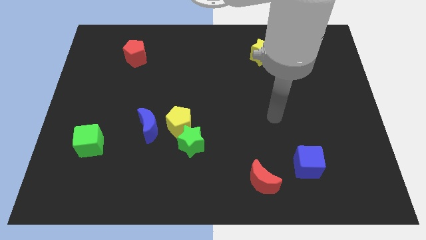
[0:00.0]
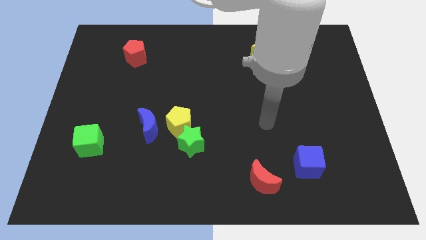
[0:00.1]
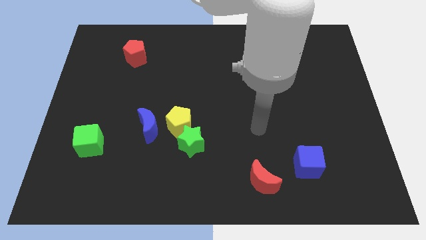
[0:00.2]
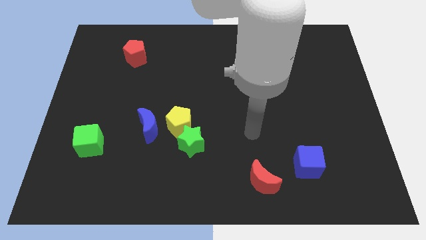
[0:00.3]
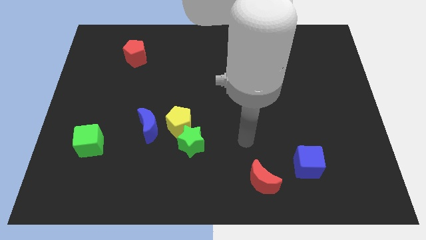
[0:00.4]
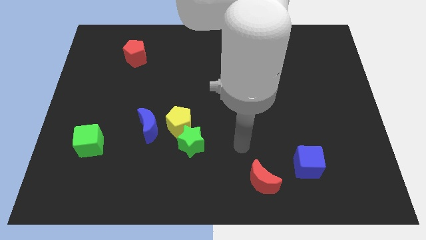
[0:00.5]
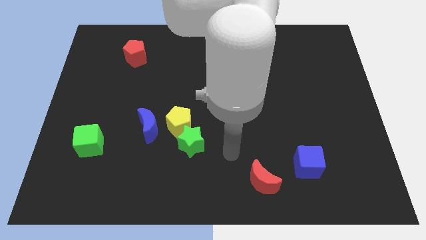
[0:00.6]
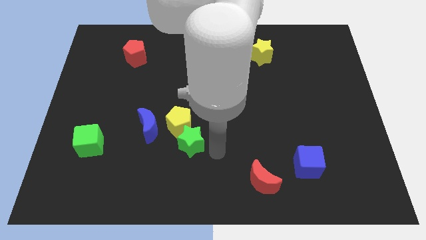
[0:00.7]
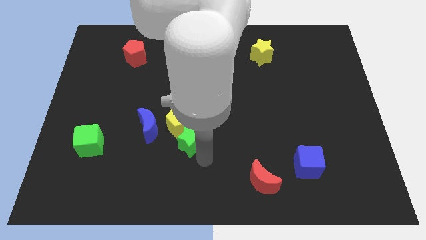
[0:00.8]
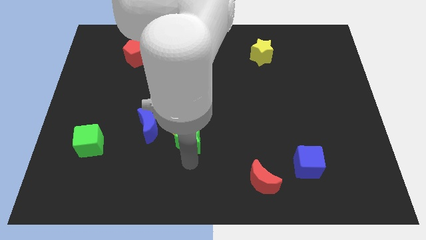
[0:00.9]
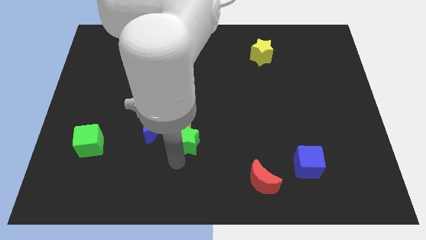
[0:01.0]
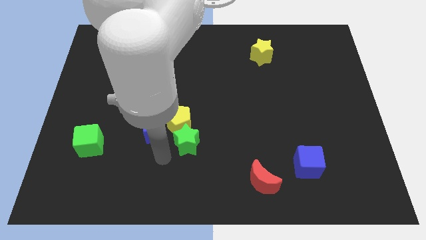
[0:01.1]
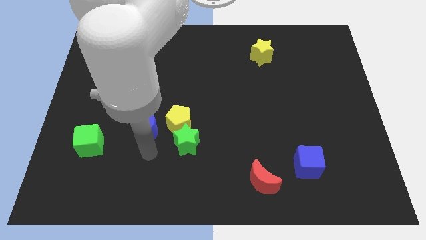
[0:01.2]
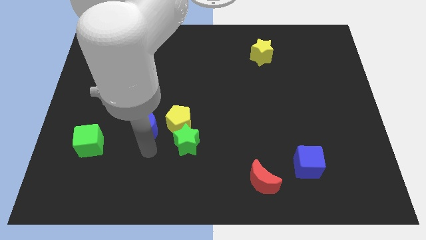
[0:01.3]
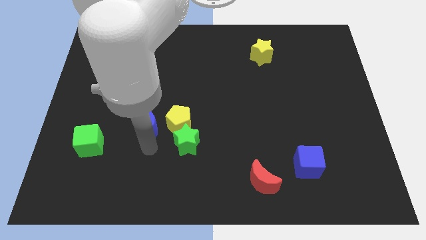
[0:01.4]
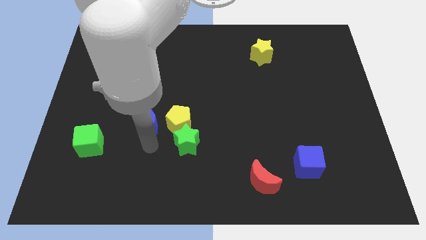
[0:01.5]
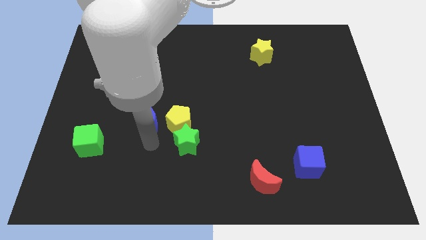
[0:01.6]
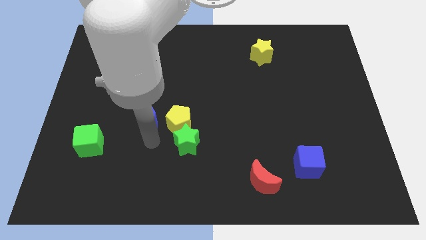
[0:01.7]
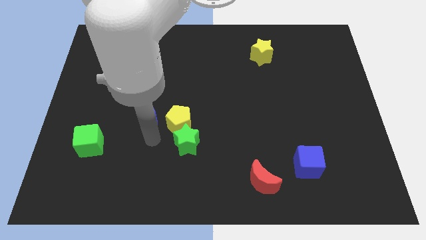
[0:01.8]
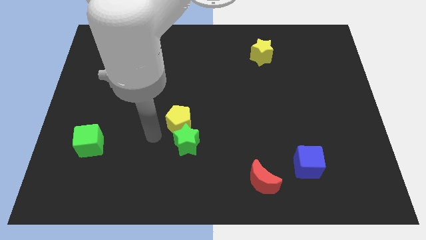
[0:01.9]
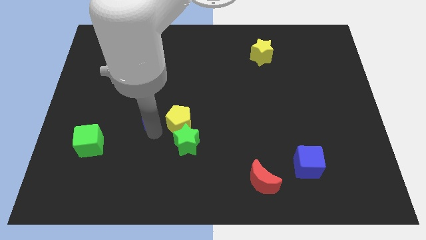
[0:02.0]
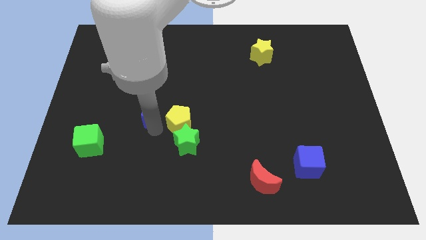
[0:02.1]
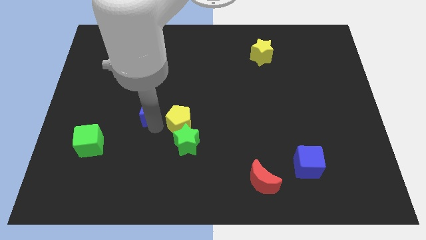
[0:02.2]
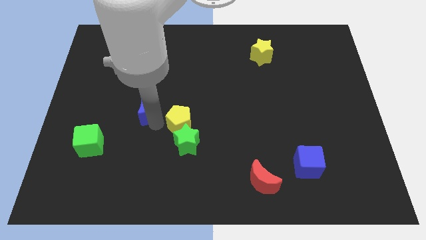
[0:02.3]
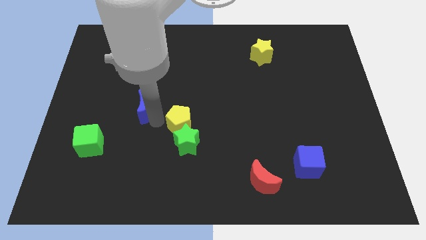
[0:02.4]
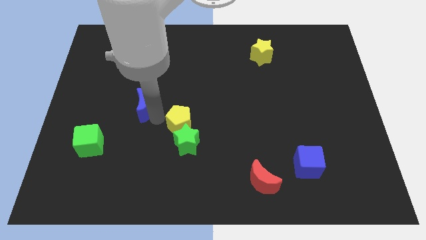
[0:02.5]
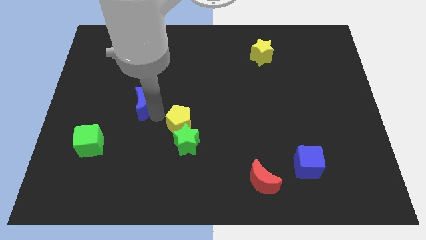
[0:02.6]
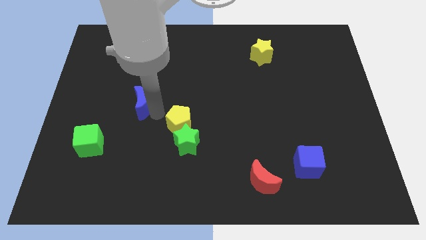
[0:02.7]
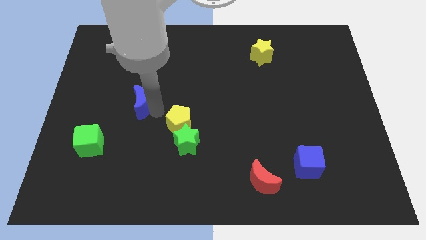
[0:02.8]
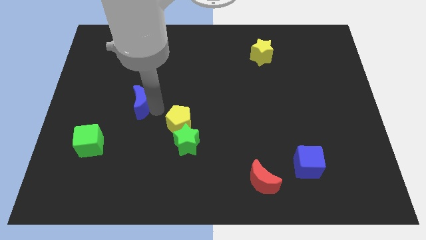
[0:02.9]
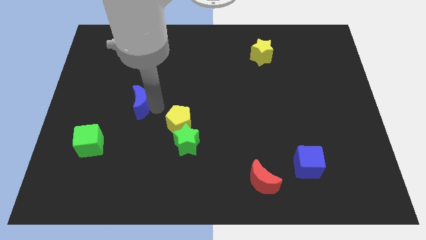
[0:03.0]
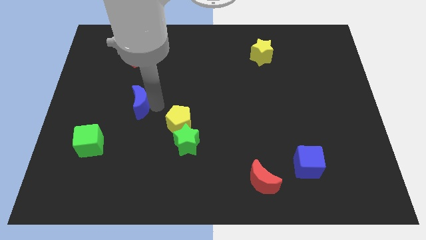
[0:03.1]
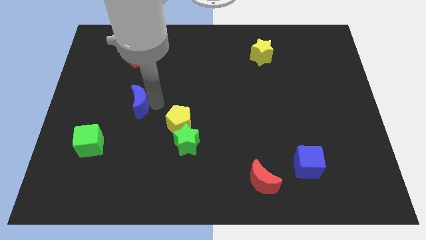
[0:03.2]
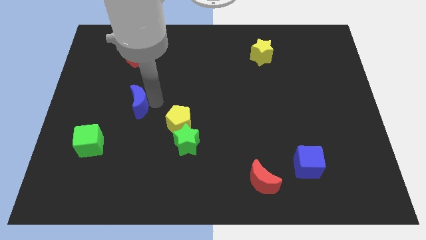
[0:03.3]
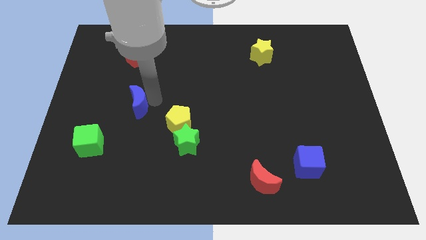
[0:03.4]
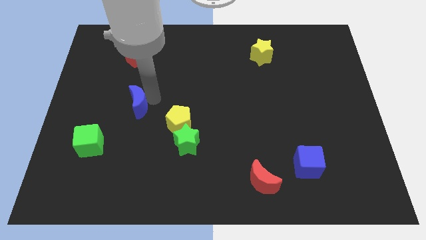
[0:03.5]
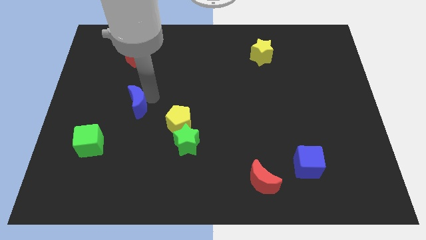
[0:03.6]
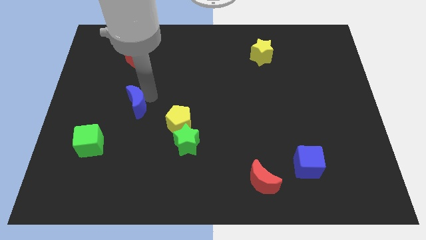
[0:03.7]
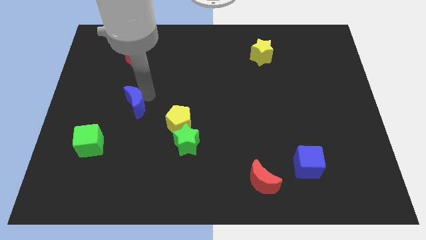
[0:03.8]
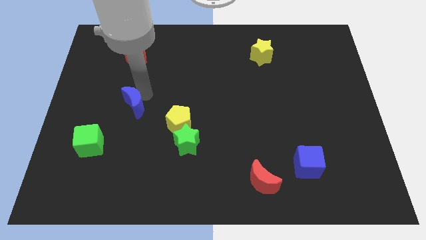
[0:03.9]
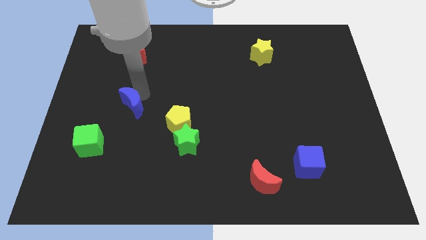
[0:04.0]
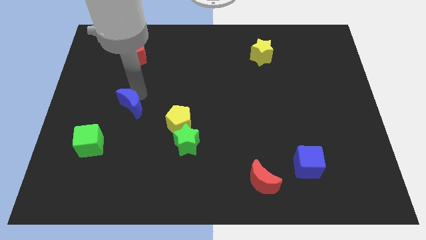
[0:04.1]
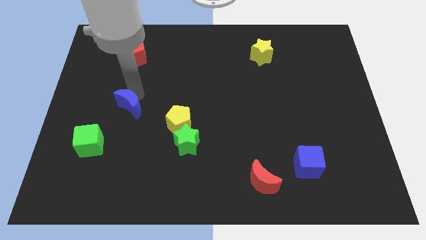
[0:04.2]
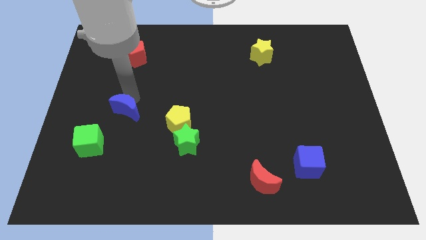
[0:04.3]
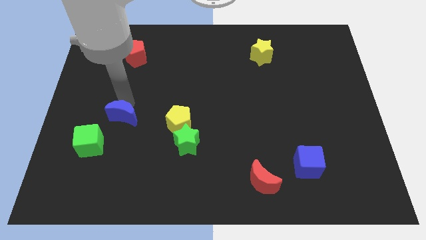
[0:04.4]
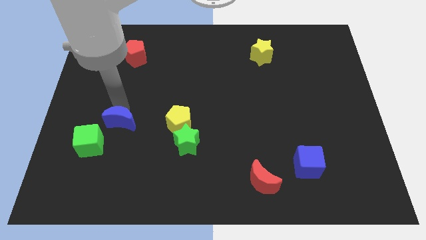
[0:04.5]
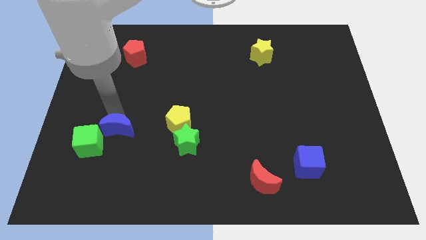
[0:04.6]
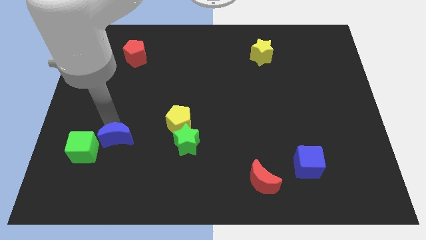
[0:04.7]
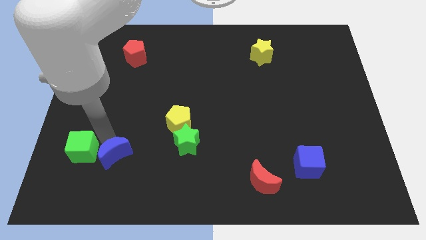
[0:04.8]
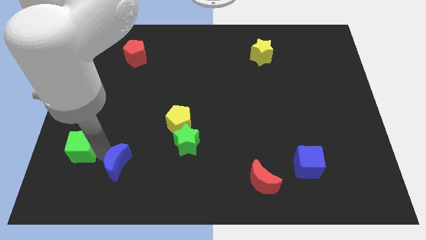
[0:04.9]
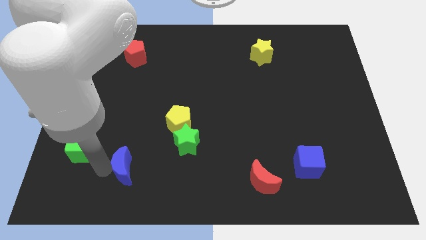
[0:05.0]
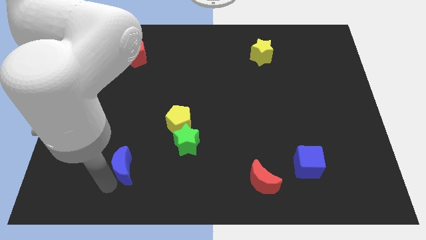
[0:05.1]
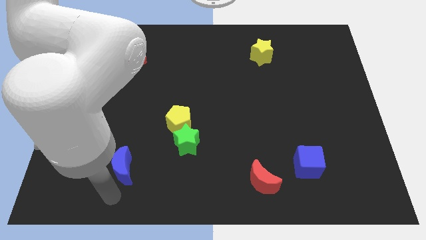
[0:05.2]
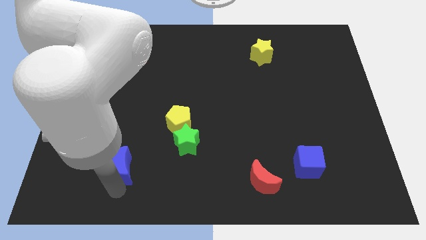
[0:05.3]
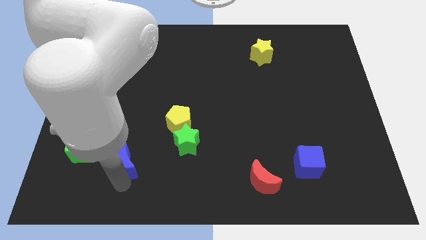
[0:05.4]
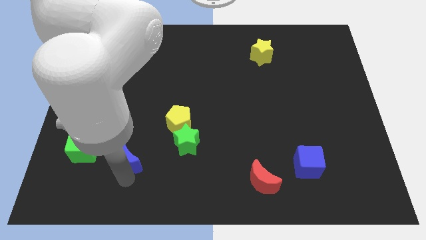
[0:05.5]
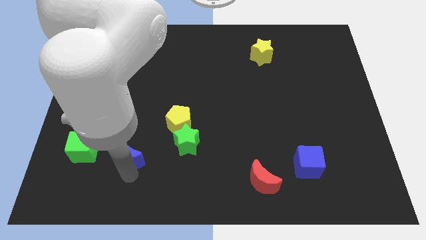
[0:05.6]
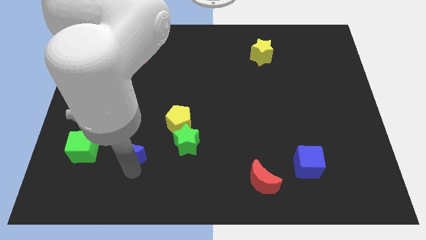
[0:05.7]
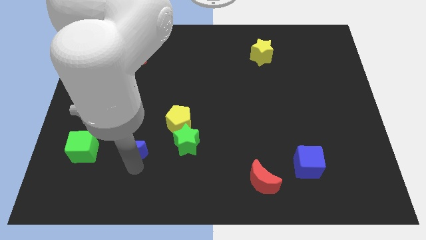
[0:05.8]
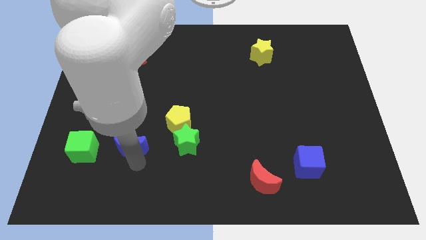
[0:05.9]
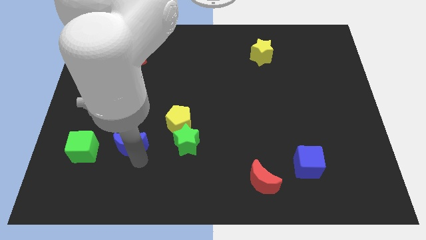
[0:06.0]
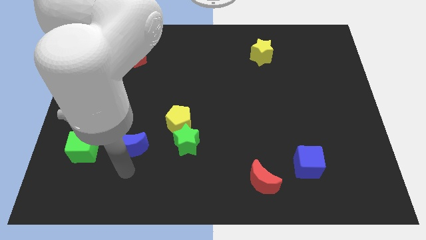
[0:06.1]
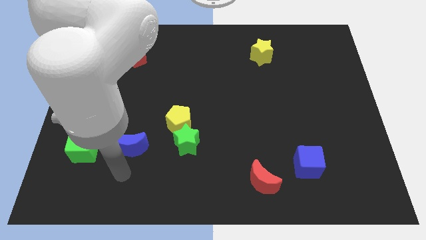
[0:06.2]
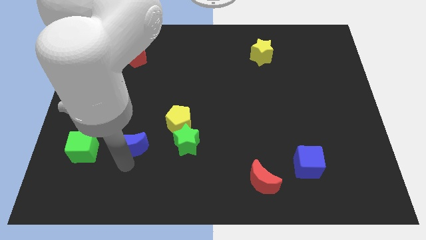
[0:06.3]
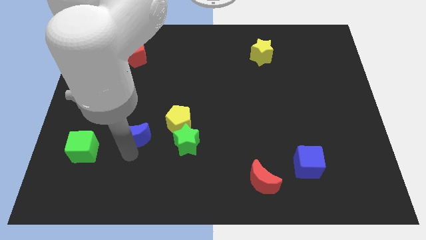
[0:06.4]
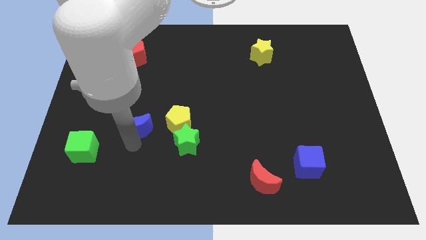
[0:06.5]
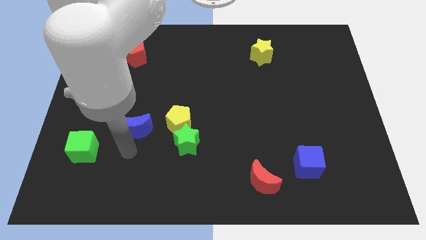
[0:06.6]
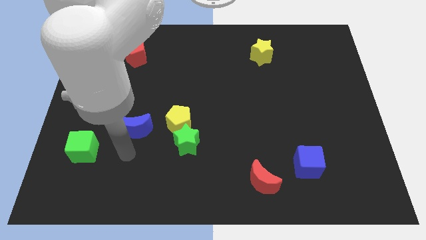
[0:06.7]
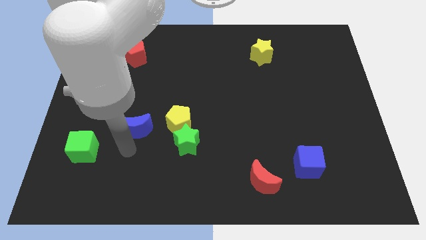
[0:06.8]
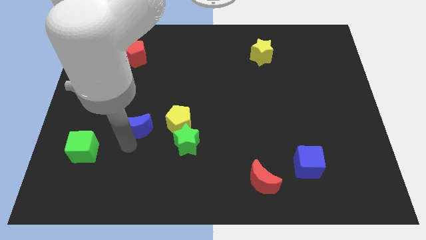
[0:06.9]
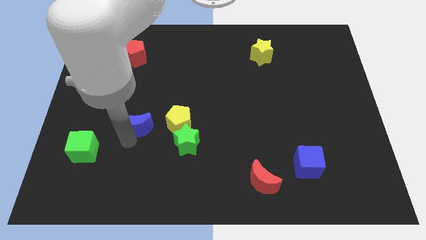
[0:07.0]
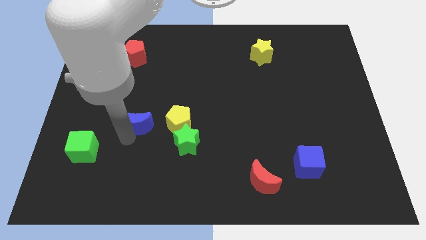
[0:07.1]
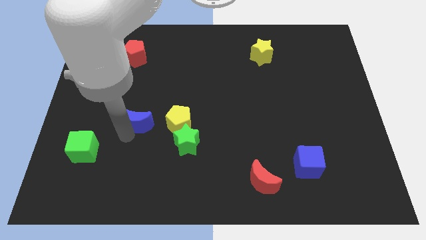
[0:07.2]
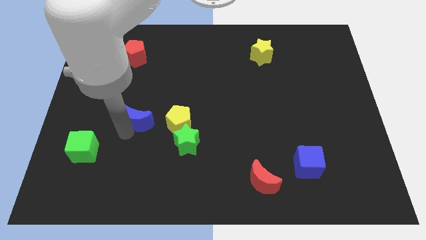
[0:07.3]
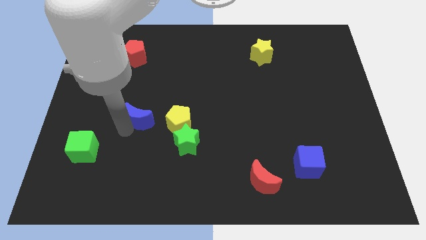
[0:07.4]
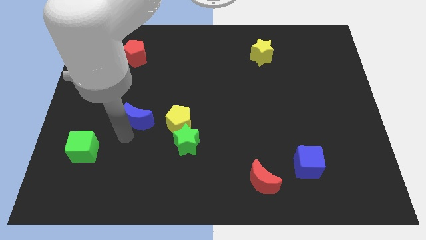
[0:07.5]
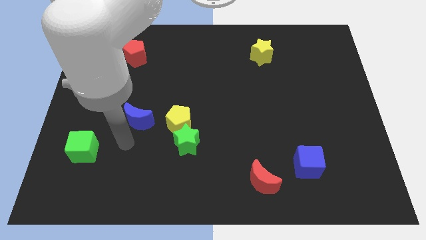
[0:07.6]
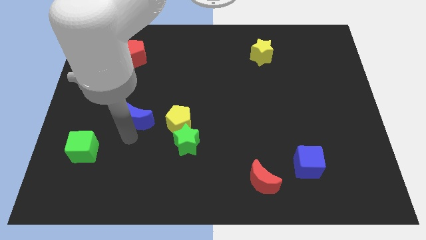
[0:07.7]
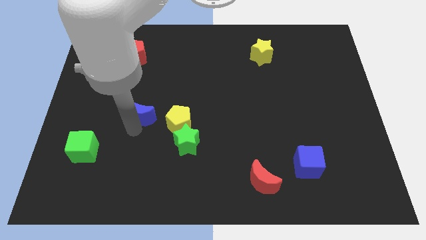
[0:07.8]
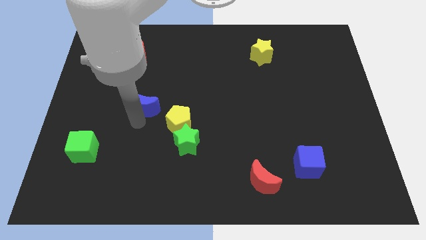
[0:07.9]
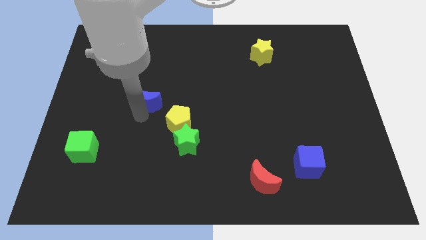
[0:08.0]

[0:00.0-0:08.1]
move the blue moon a little bit up

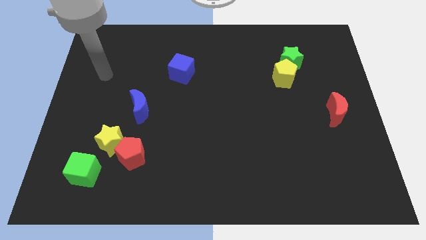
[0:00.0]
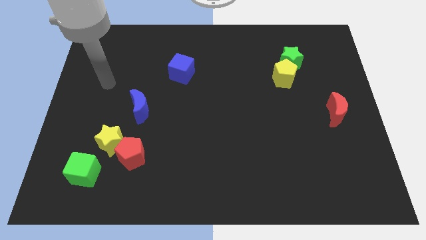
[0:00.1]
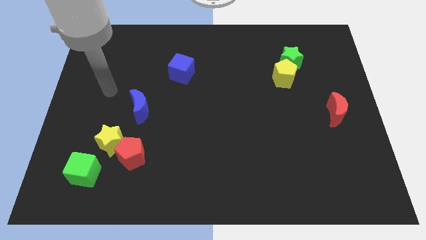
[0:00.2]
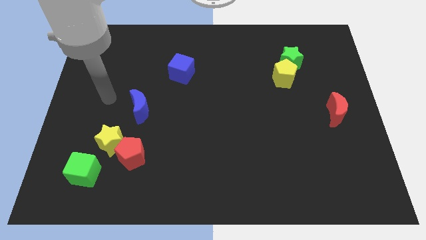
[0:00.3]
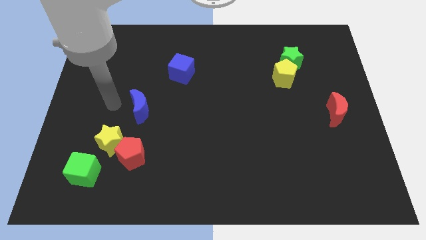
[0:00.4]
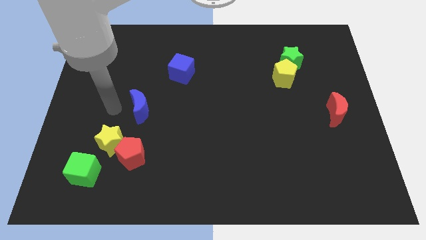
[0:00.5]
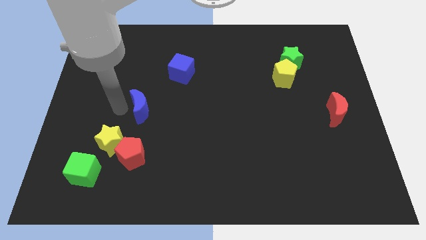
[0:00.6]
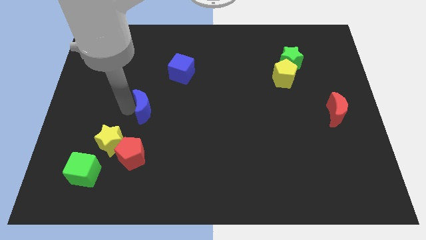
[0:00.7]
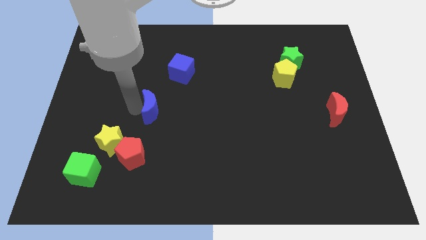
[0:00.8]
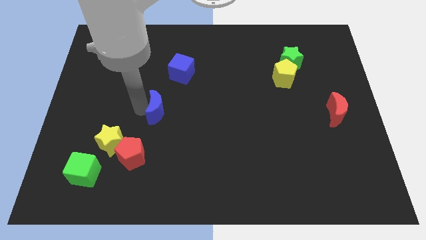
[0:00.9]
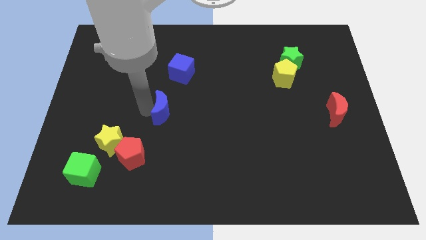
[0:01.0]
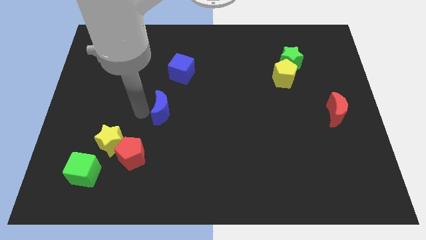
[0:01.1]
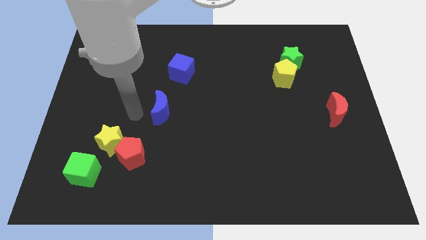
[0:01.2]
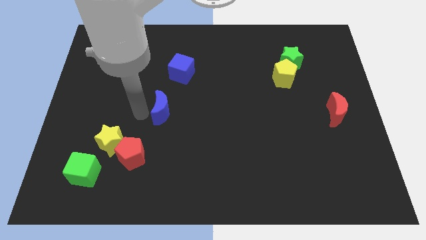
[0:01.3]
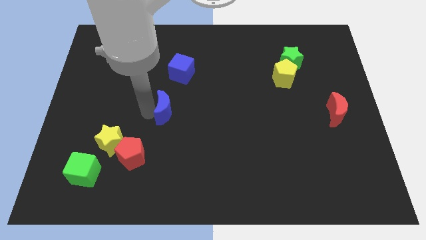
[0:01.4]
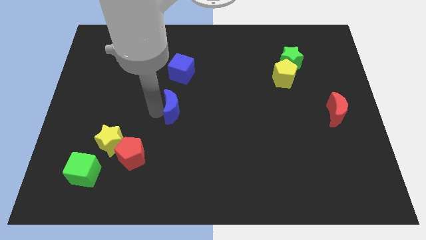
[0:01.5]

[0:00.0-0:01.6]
push the blue moon somewhat right
